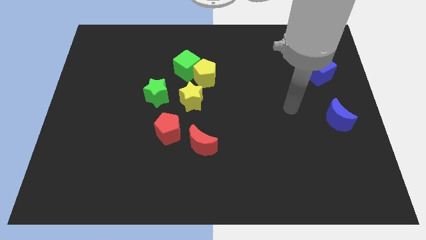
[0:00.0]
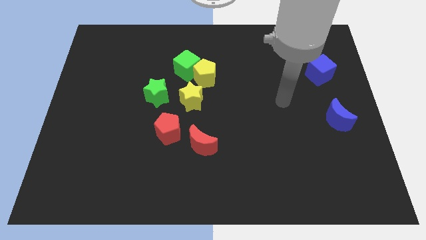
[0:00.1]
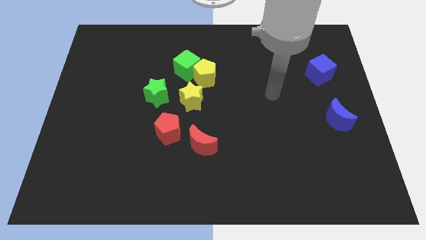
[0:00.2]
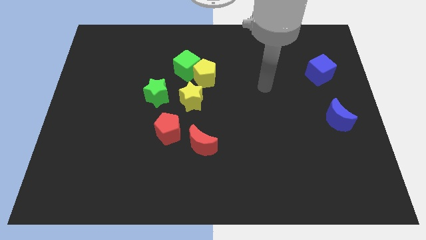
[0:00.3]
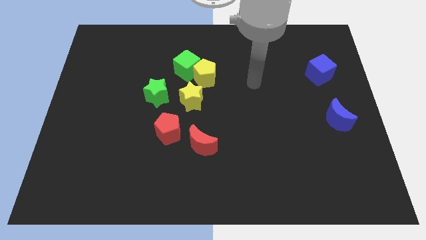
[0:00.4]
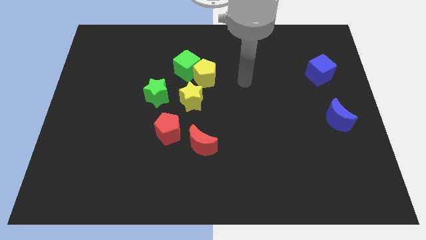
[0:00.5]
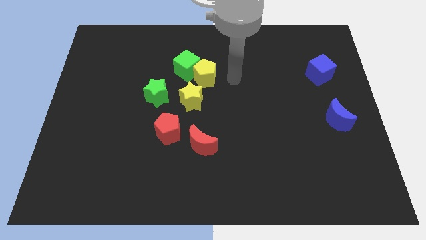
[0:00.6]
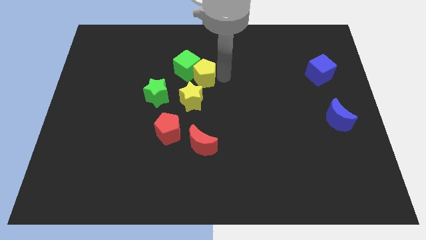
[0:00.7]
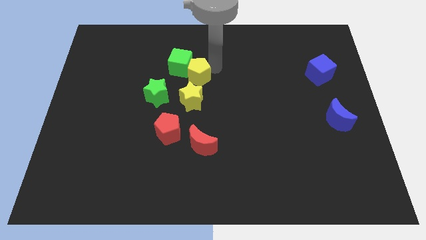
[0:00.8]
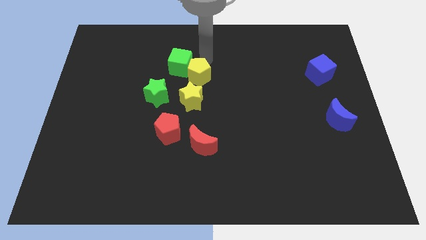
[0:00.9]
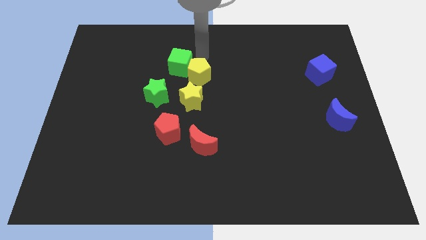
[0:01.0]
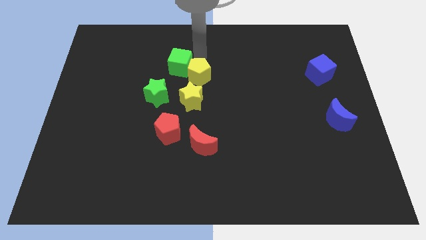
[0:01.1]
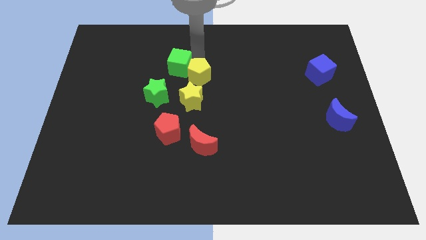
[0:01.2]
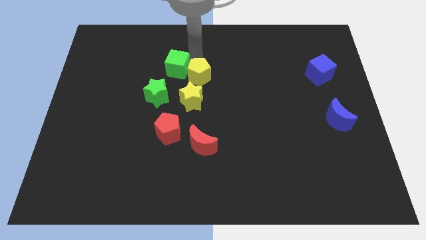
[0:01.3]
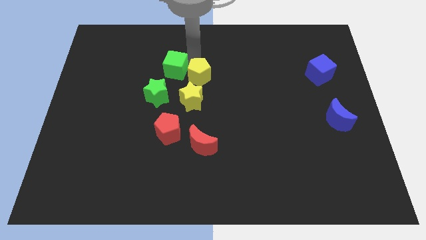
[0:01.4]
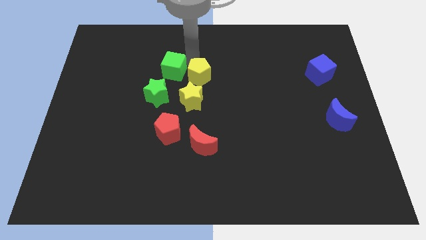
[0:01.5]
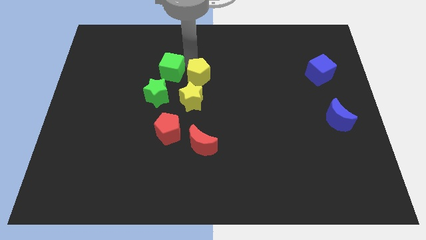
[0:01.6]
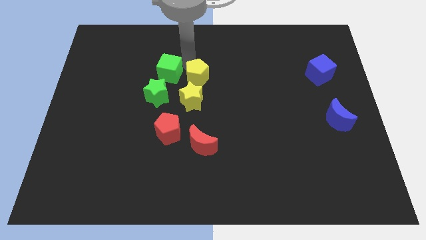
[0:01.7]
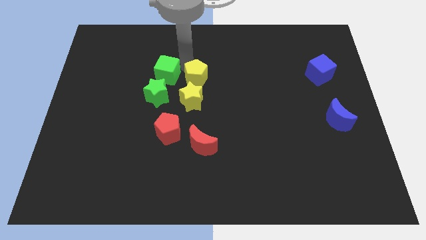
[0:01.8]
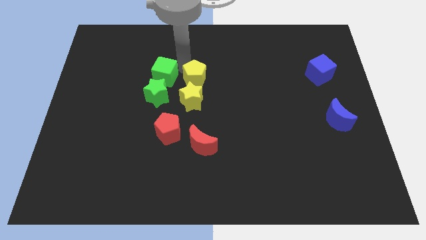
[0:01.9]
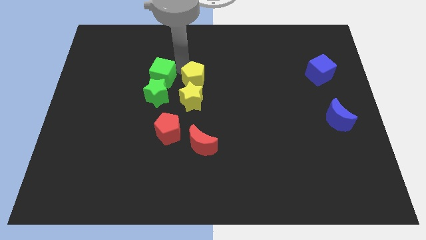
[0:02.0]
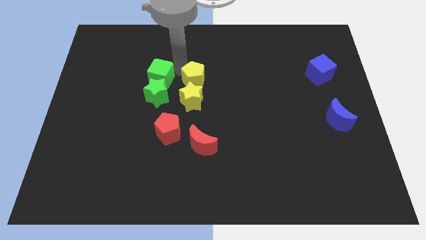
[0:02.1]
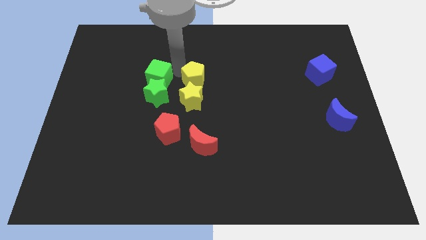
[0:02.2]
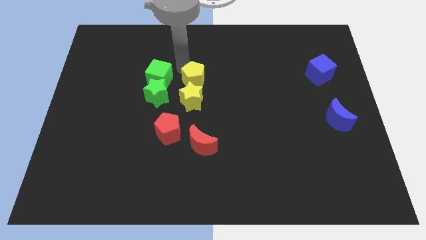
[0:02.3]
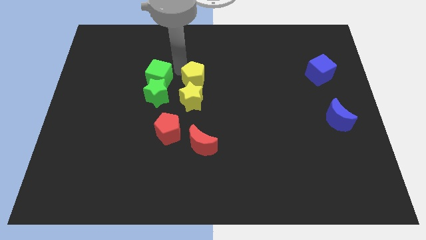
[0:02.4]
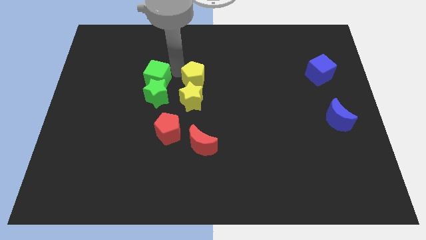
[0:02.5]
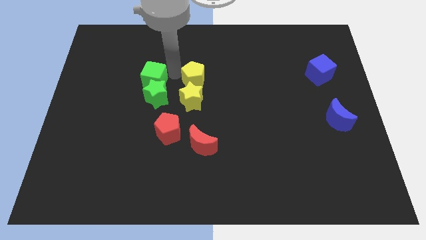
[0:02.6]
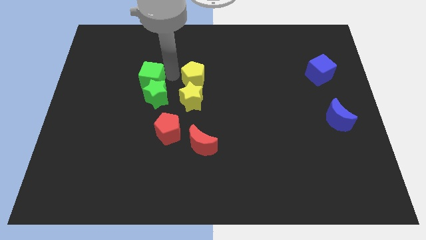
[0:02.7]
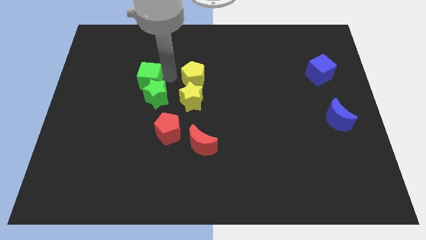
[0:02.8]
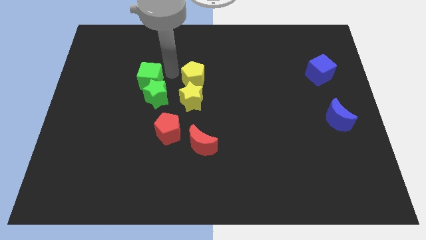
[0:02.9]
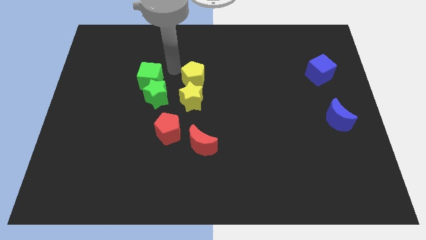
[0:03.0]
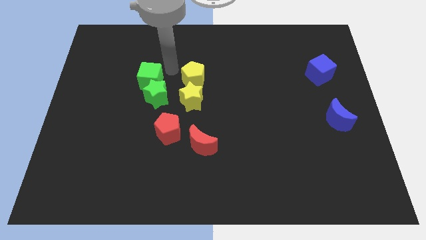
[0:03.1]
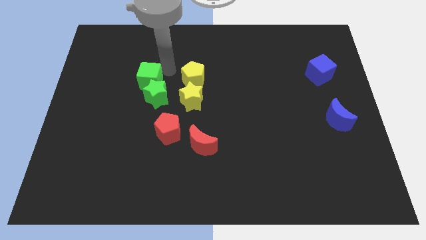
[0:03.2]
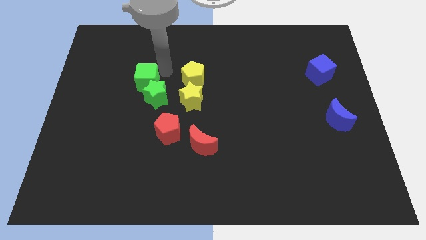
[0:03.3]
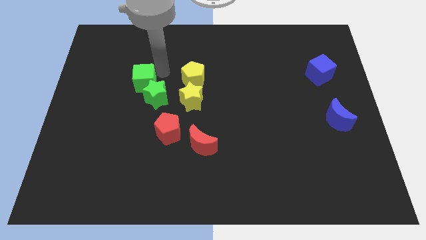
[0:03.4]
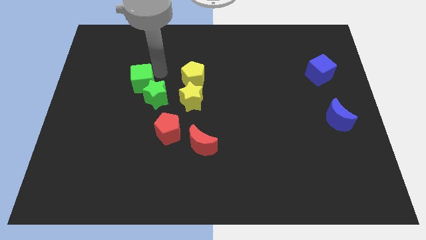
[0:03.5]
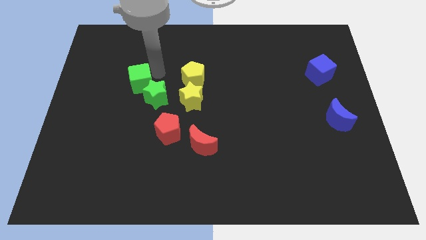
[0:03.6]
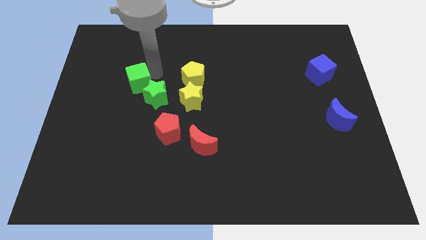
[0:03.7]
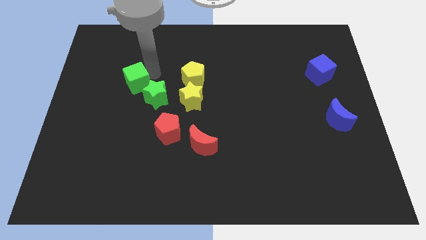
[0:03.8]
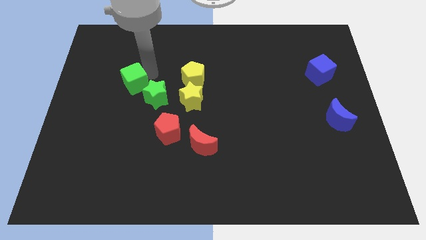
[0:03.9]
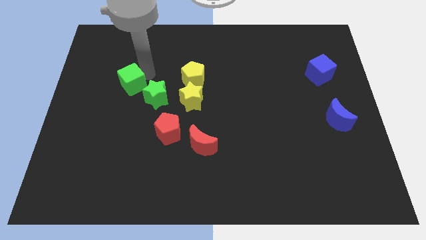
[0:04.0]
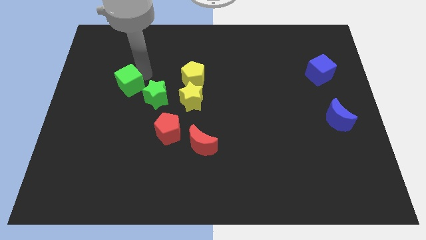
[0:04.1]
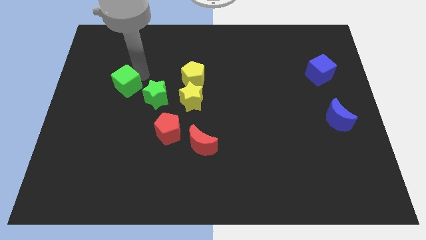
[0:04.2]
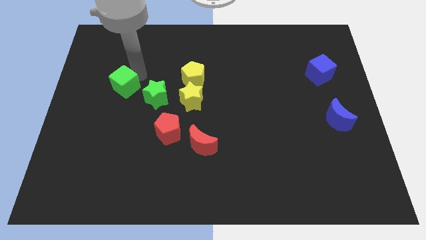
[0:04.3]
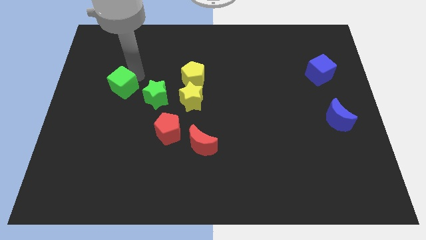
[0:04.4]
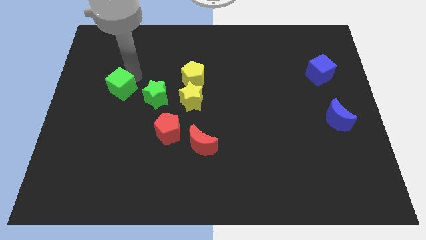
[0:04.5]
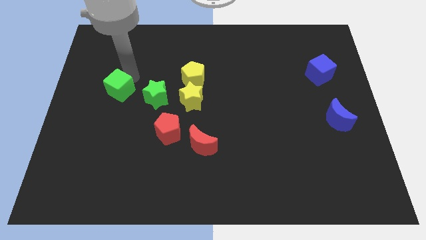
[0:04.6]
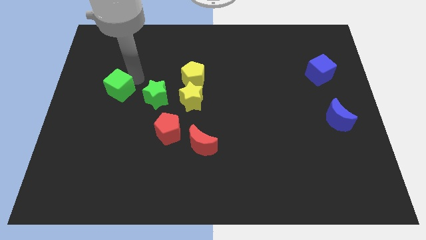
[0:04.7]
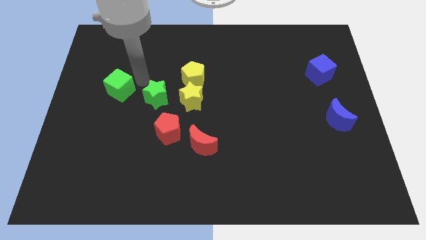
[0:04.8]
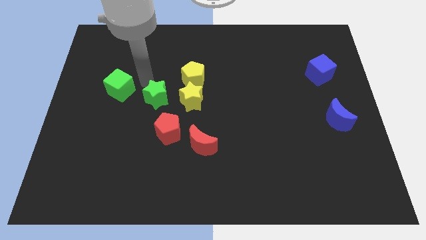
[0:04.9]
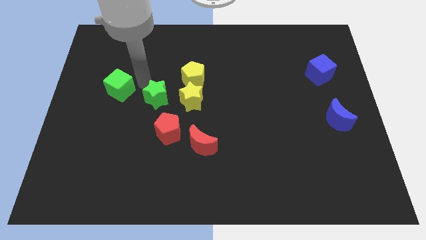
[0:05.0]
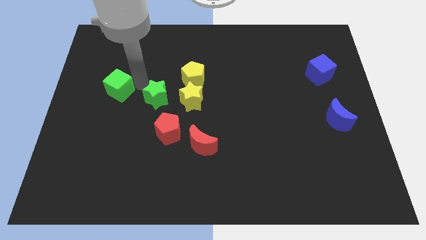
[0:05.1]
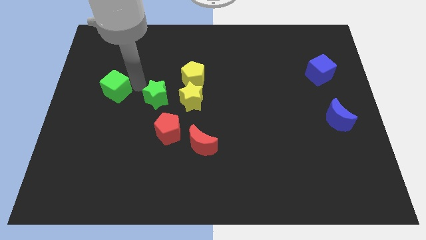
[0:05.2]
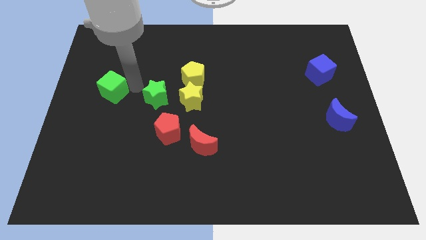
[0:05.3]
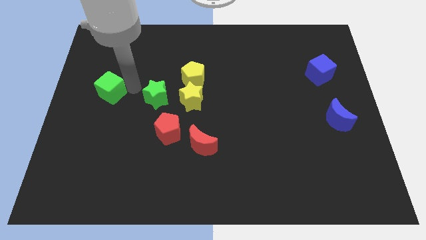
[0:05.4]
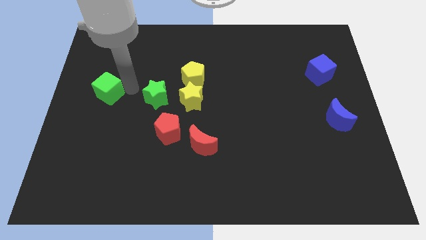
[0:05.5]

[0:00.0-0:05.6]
move the green cube to the left side

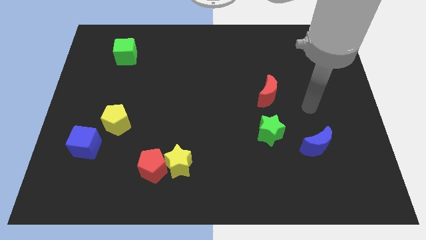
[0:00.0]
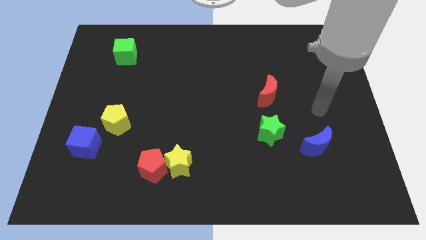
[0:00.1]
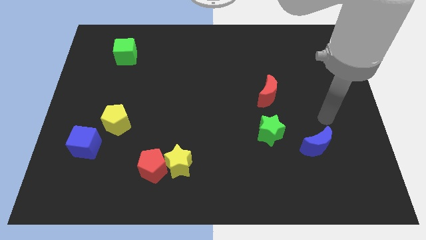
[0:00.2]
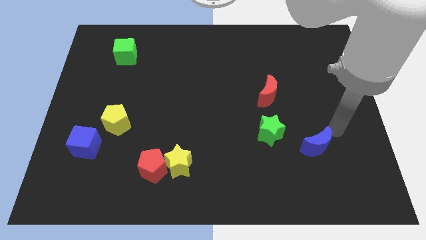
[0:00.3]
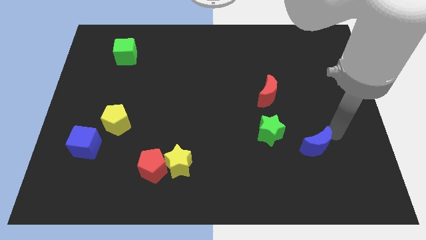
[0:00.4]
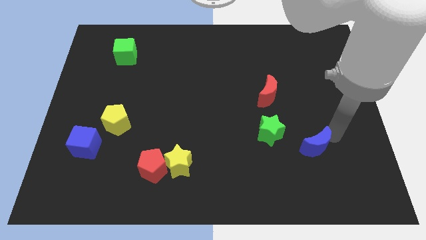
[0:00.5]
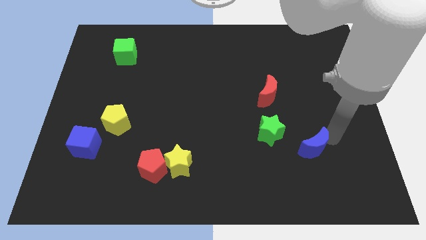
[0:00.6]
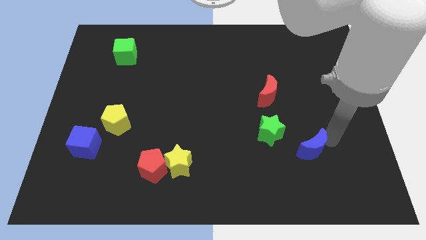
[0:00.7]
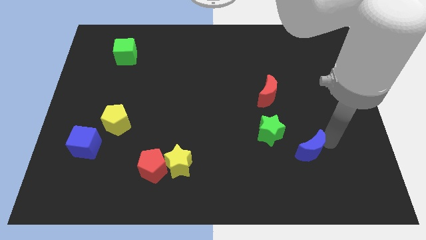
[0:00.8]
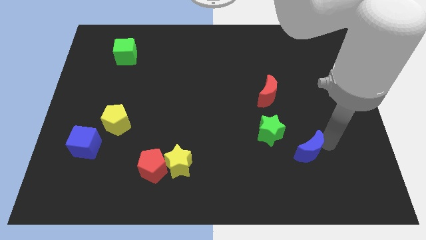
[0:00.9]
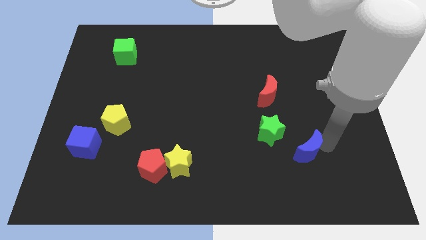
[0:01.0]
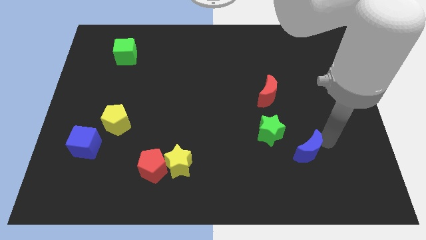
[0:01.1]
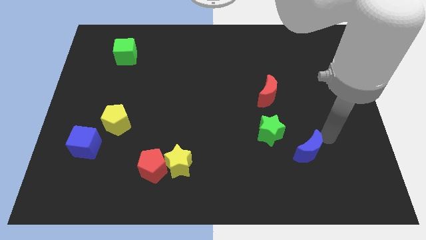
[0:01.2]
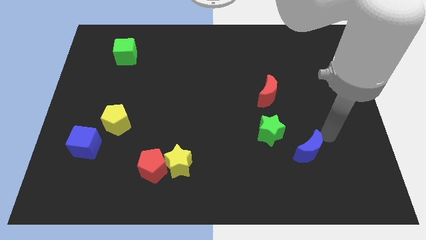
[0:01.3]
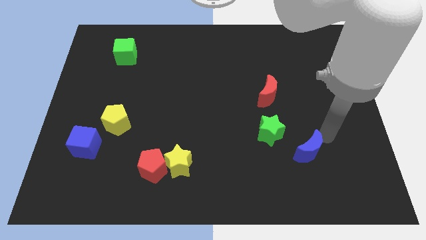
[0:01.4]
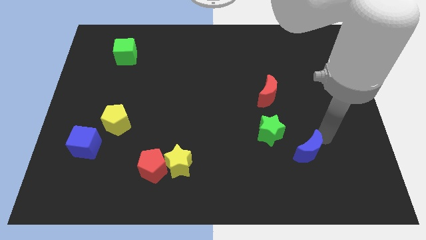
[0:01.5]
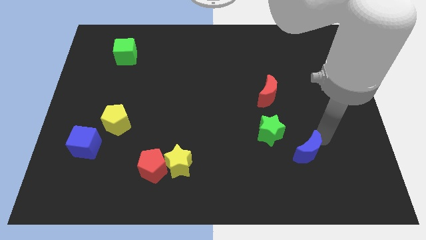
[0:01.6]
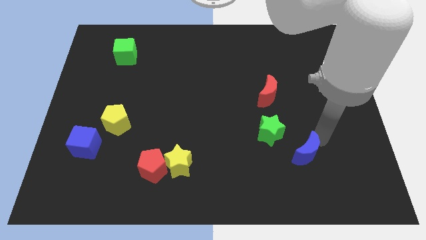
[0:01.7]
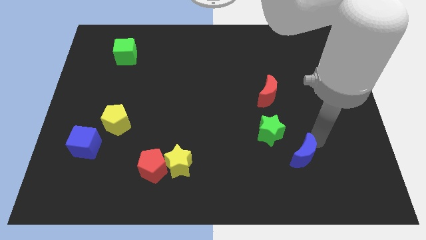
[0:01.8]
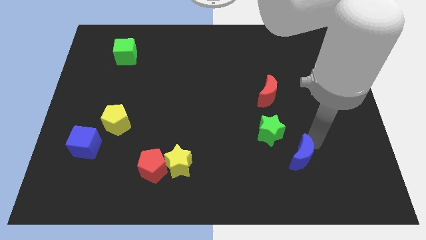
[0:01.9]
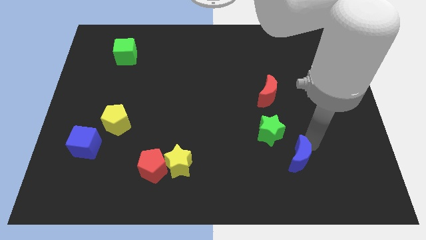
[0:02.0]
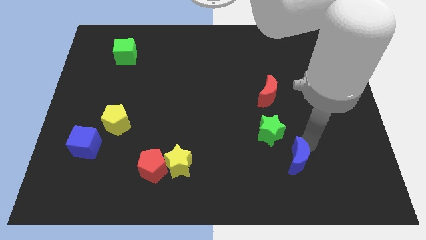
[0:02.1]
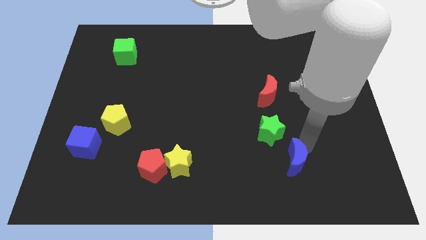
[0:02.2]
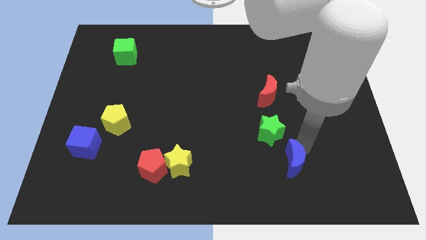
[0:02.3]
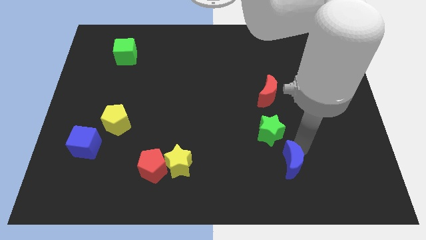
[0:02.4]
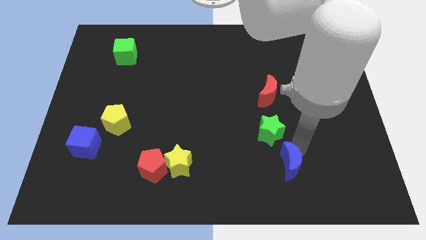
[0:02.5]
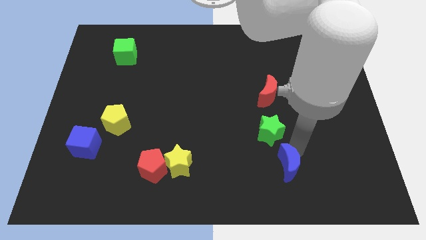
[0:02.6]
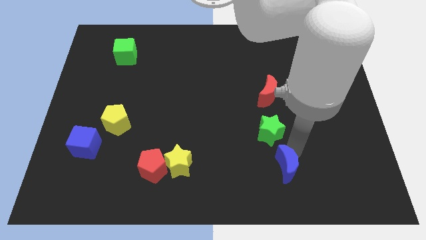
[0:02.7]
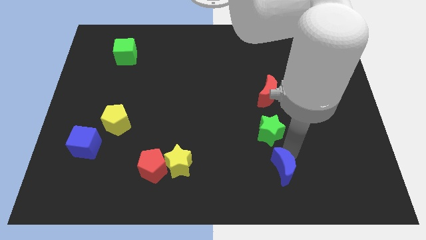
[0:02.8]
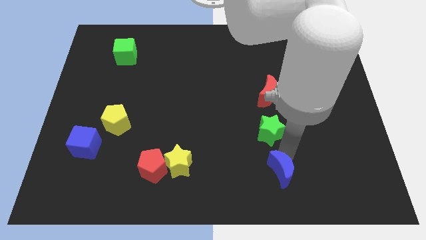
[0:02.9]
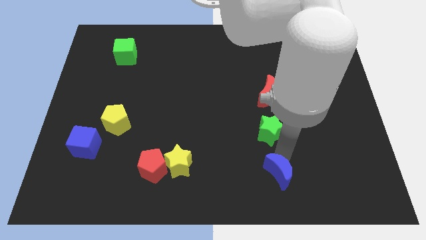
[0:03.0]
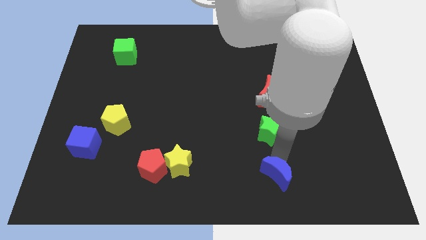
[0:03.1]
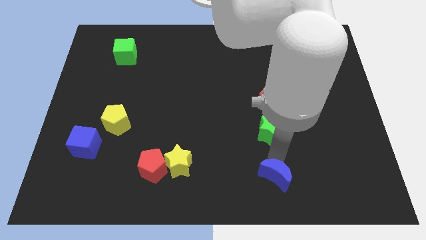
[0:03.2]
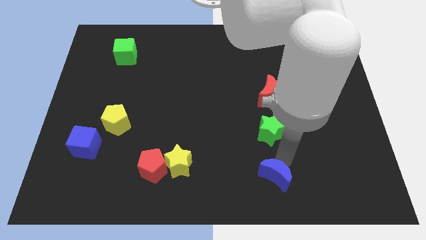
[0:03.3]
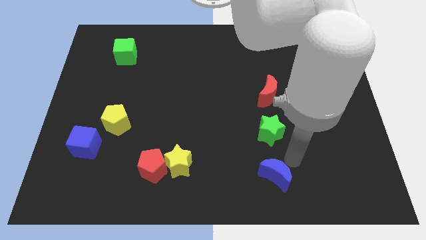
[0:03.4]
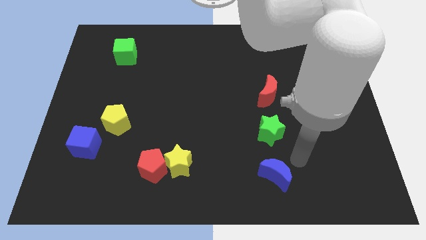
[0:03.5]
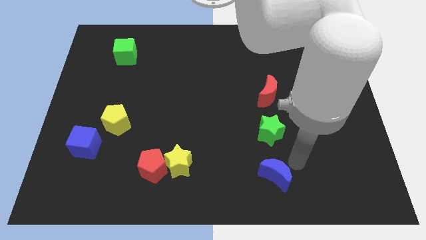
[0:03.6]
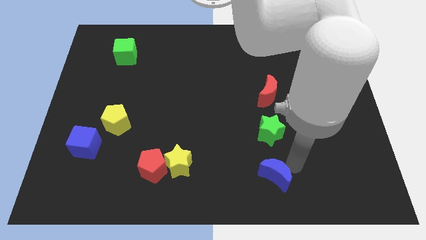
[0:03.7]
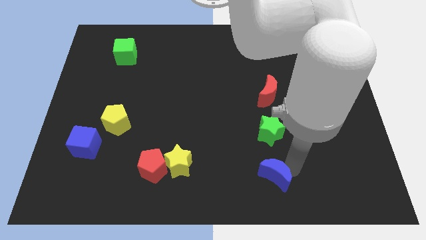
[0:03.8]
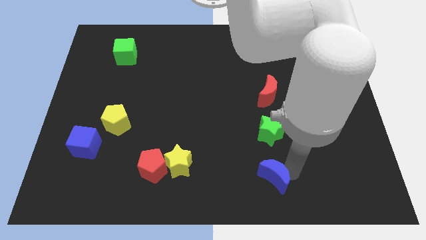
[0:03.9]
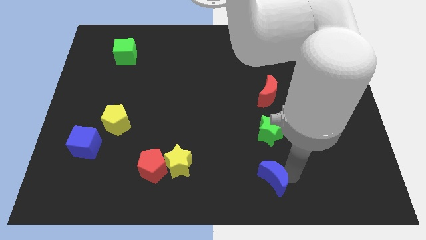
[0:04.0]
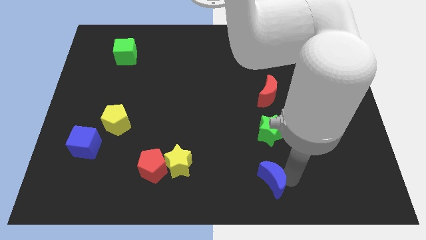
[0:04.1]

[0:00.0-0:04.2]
push the blue moon to the bottom
